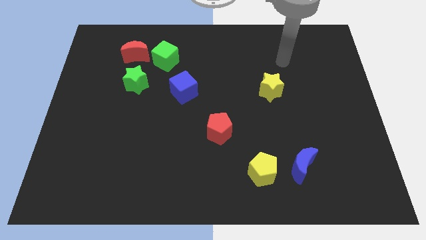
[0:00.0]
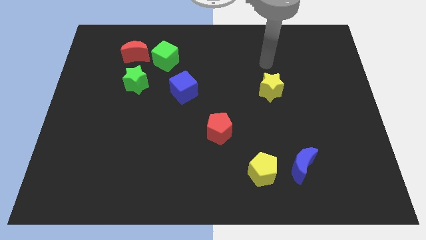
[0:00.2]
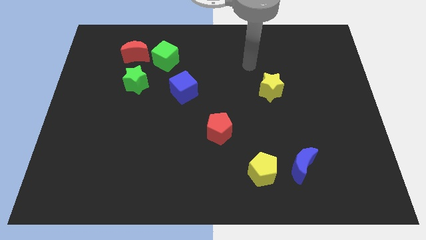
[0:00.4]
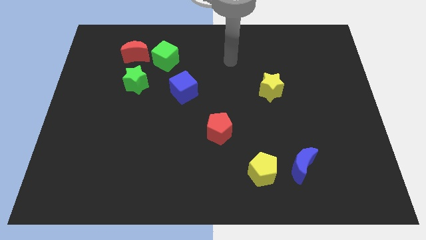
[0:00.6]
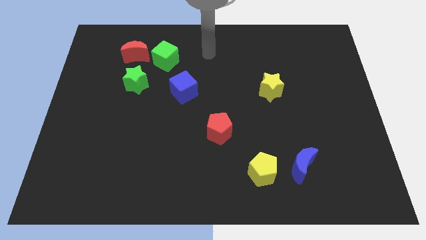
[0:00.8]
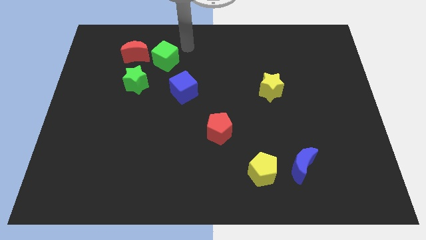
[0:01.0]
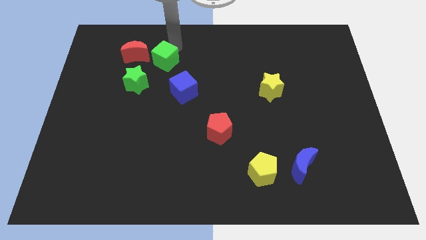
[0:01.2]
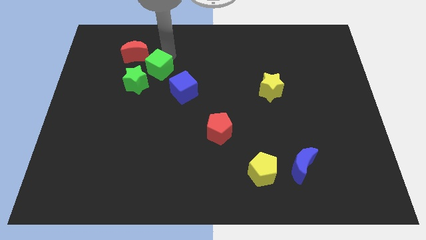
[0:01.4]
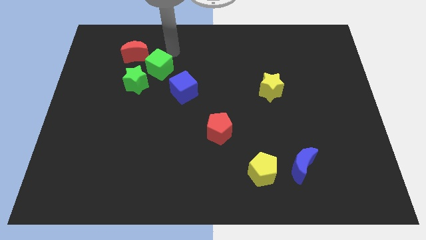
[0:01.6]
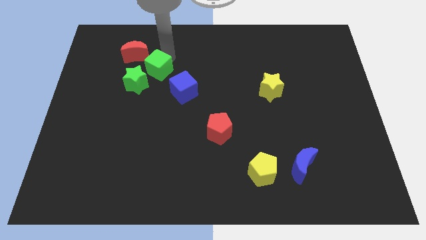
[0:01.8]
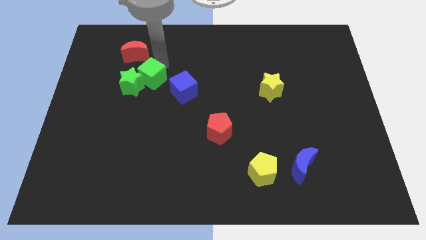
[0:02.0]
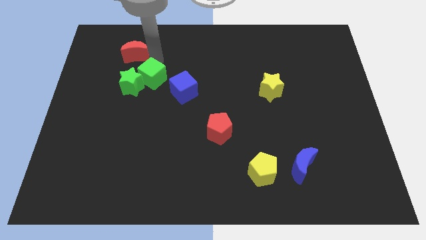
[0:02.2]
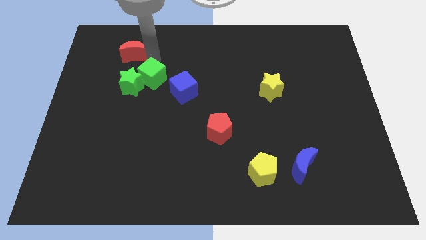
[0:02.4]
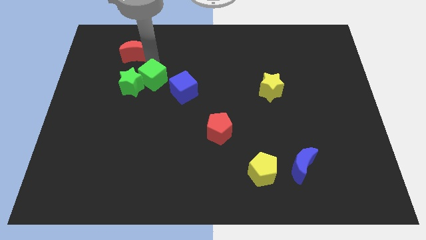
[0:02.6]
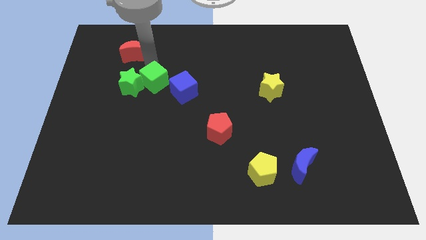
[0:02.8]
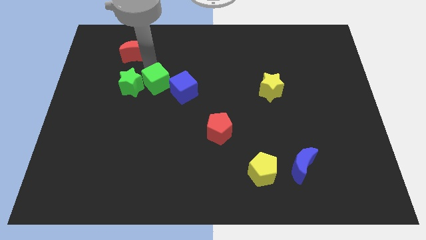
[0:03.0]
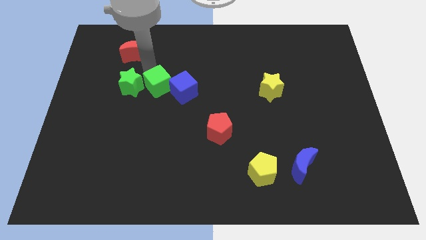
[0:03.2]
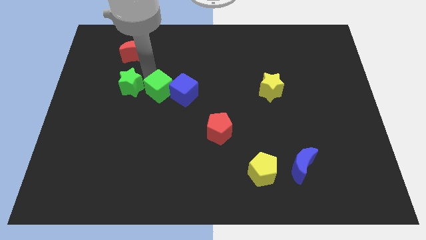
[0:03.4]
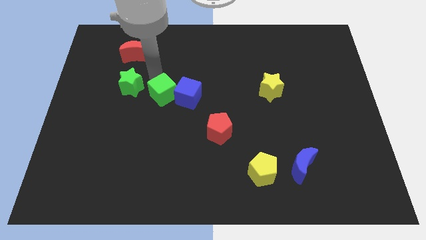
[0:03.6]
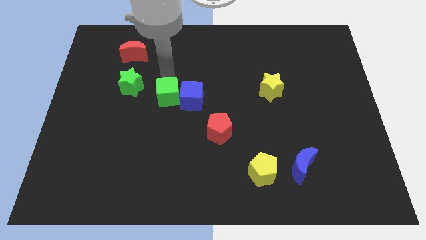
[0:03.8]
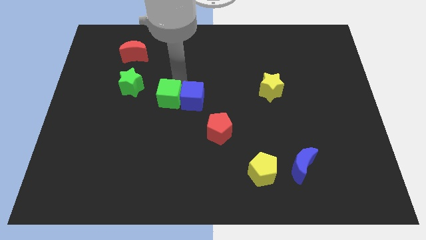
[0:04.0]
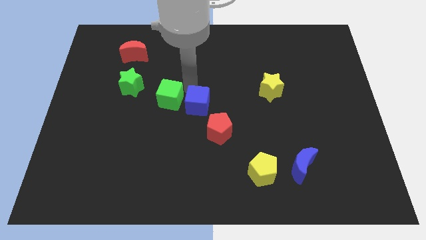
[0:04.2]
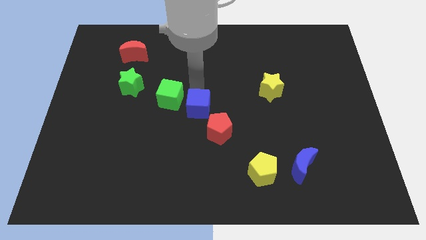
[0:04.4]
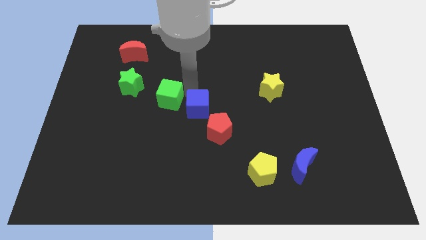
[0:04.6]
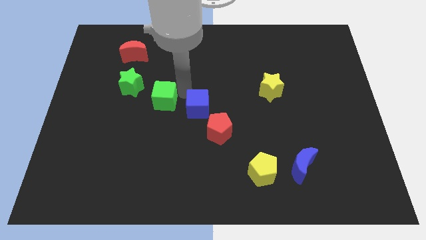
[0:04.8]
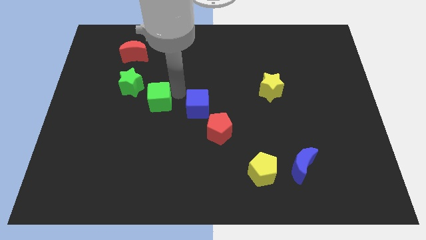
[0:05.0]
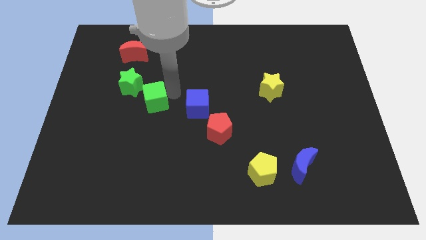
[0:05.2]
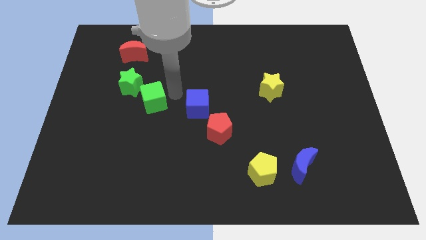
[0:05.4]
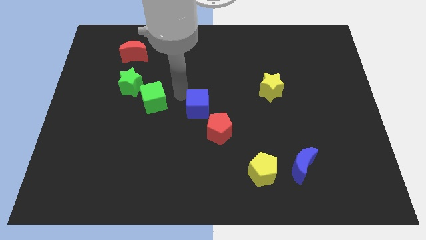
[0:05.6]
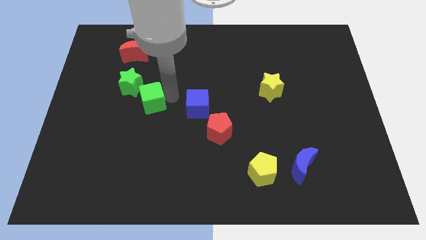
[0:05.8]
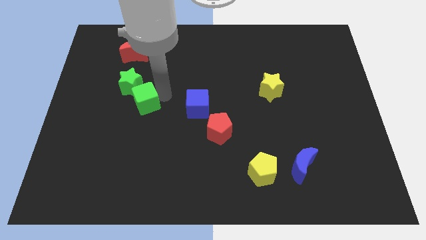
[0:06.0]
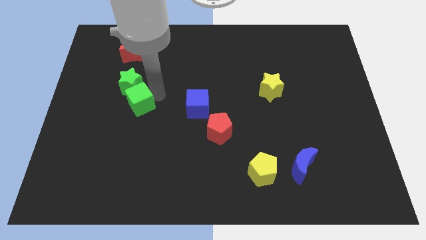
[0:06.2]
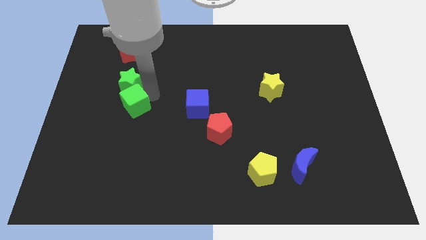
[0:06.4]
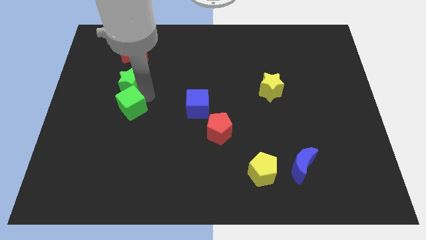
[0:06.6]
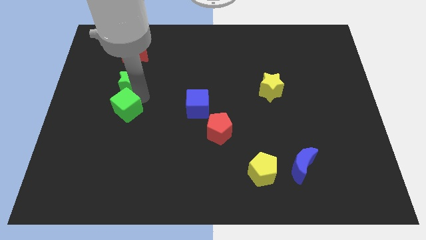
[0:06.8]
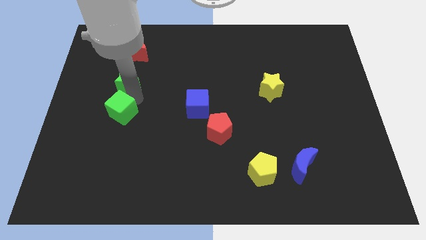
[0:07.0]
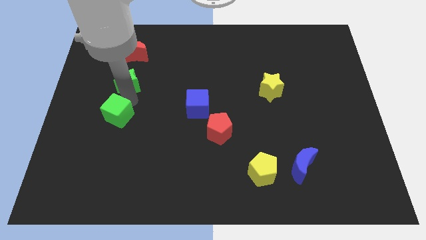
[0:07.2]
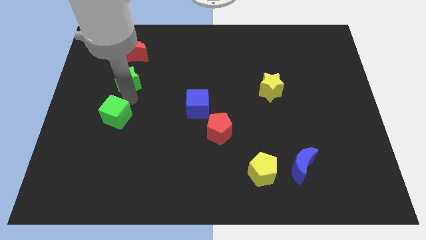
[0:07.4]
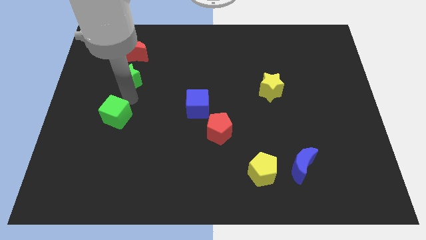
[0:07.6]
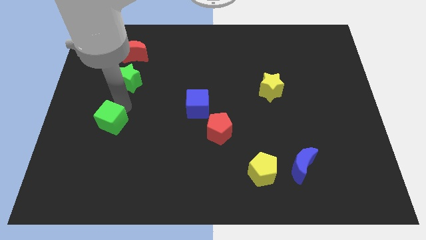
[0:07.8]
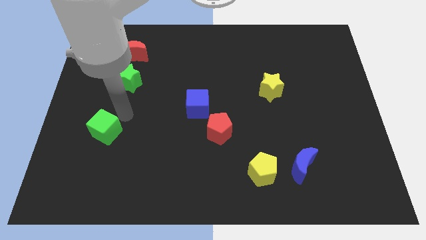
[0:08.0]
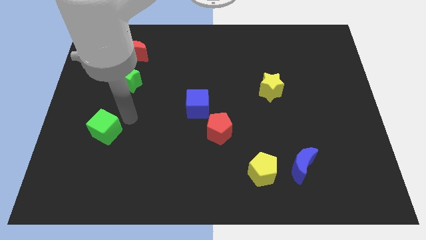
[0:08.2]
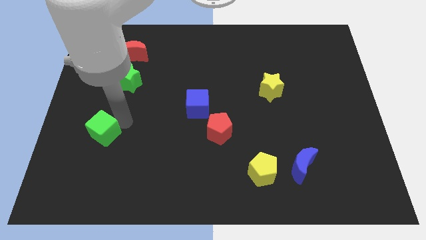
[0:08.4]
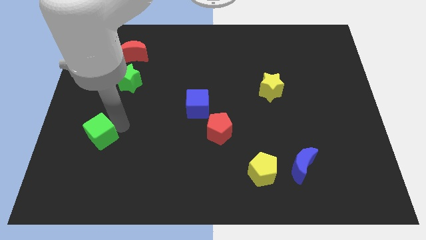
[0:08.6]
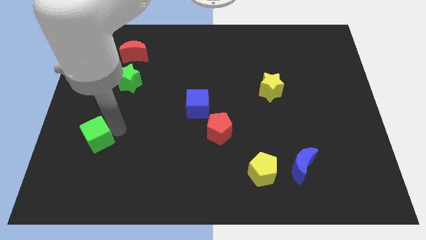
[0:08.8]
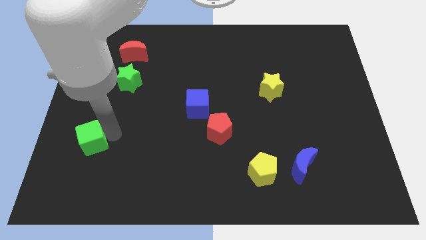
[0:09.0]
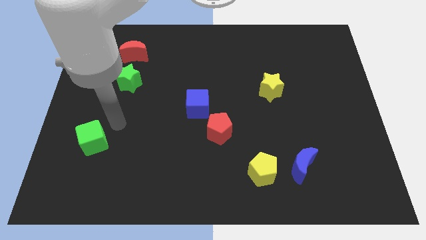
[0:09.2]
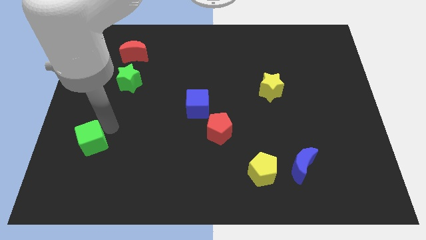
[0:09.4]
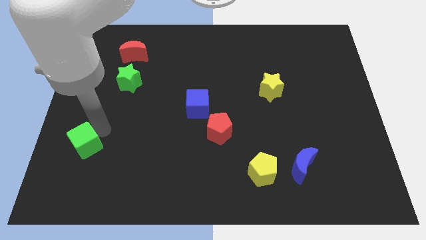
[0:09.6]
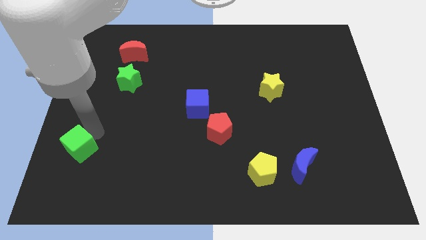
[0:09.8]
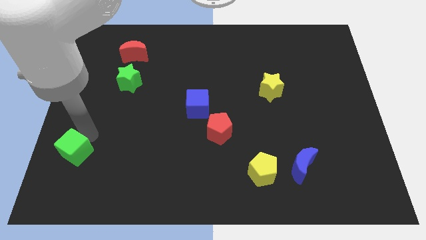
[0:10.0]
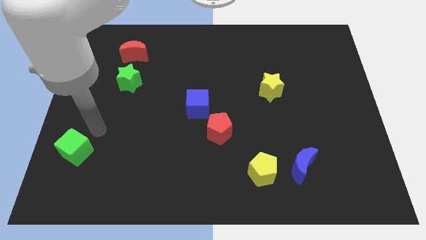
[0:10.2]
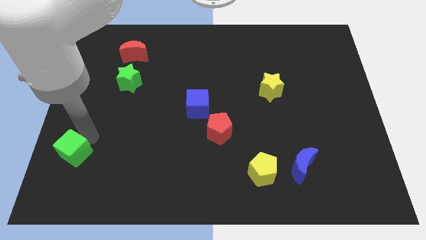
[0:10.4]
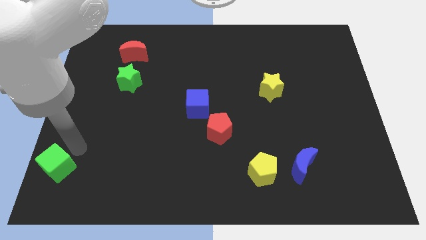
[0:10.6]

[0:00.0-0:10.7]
move the green cube to the lower left corner

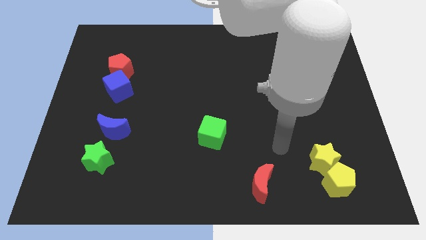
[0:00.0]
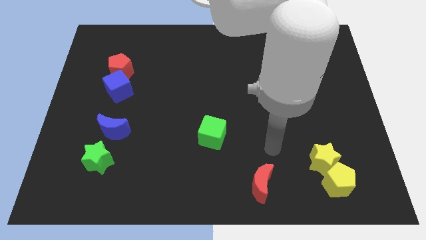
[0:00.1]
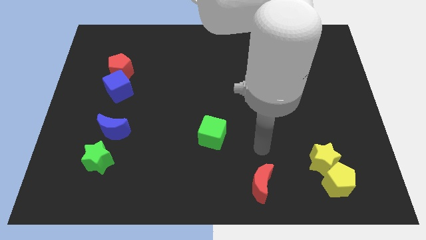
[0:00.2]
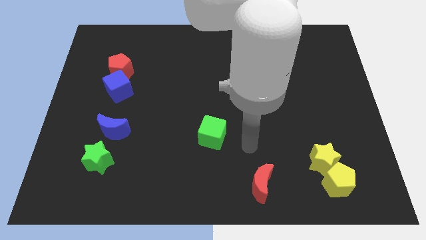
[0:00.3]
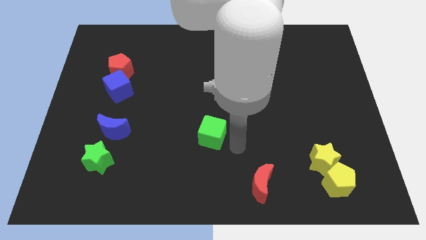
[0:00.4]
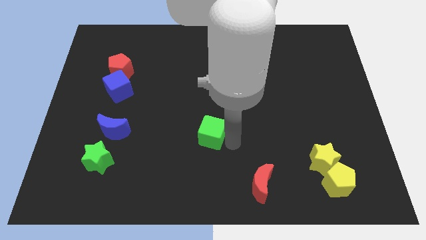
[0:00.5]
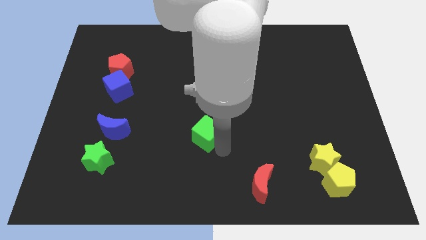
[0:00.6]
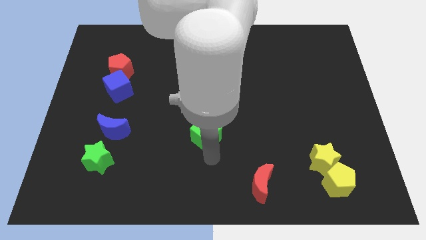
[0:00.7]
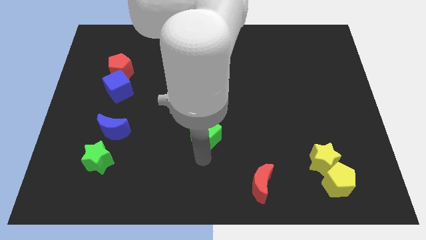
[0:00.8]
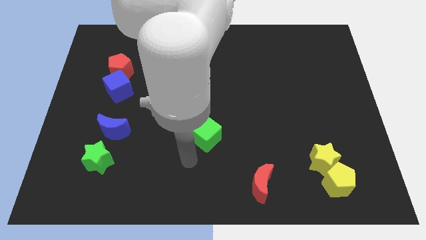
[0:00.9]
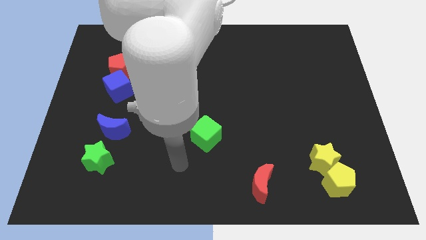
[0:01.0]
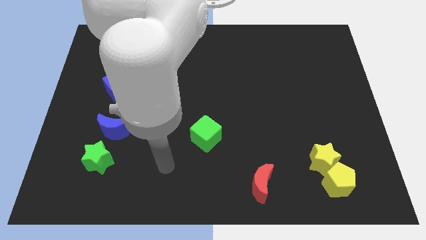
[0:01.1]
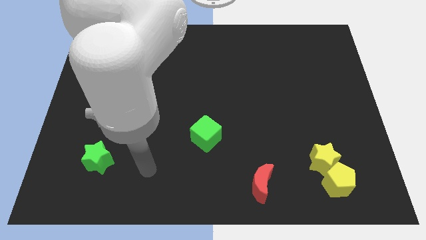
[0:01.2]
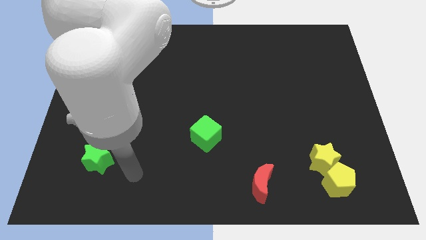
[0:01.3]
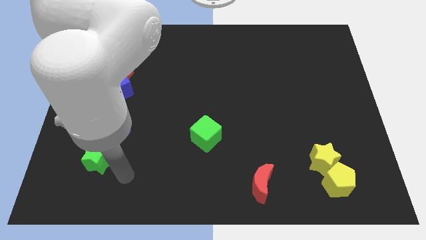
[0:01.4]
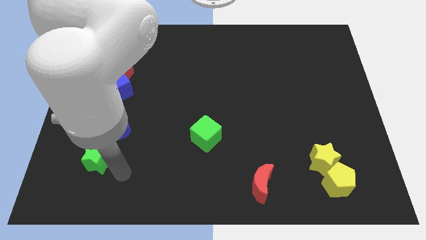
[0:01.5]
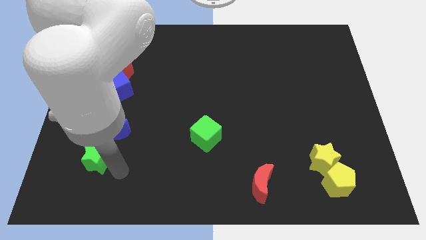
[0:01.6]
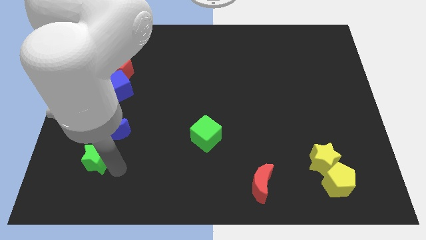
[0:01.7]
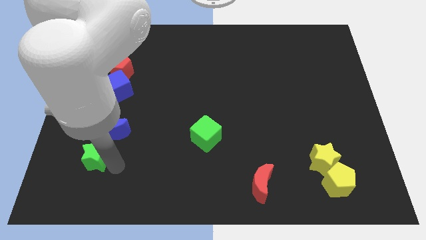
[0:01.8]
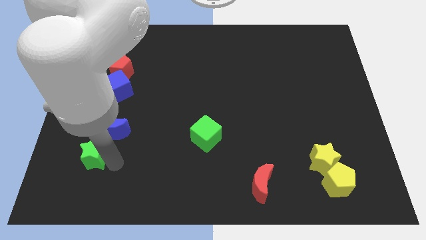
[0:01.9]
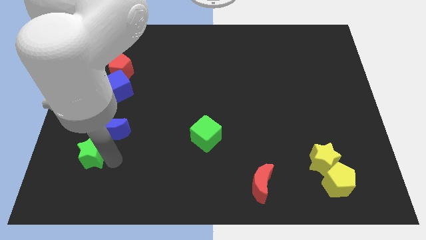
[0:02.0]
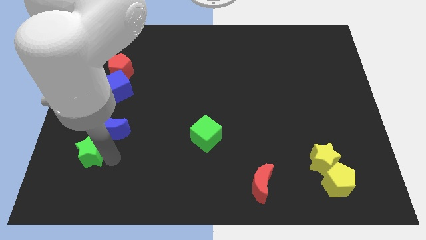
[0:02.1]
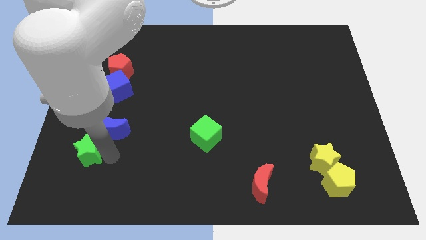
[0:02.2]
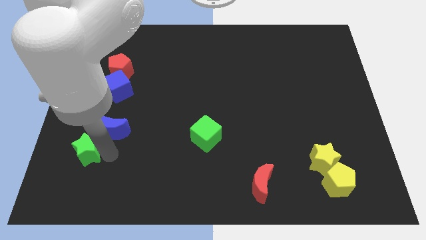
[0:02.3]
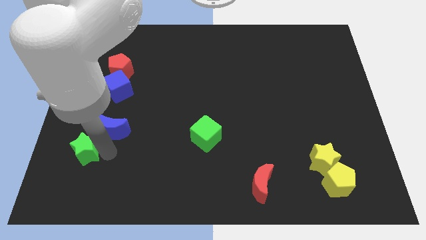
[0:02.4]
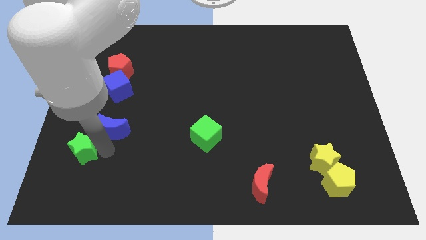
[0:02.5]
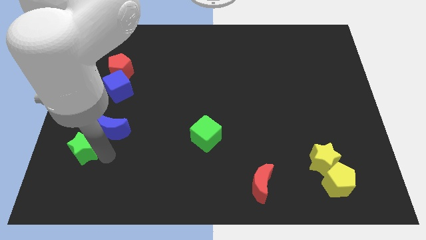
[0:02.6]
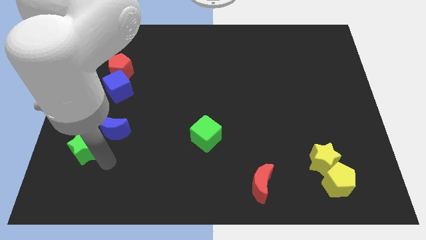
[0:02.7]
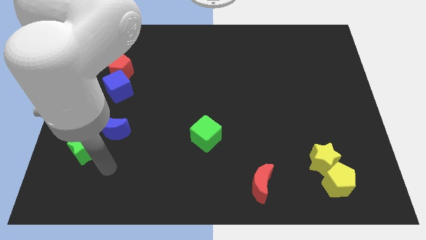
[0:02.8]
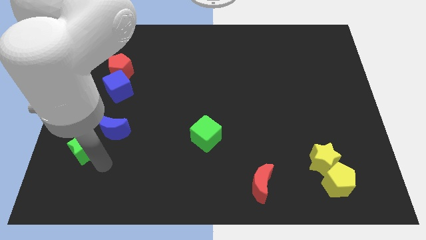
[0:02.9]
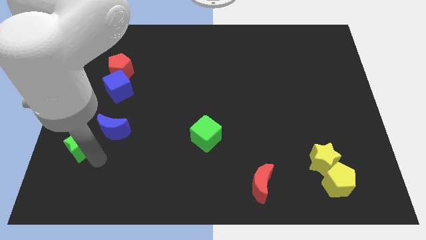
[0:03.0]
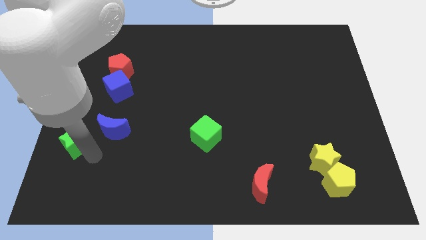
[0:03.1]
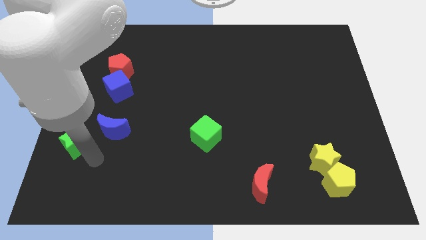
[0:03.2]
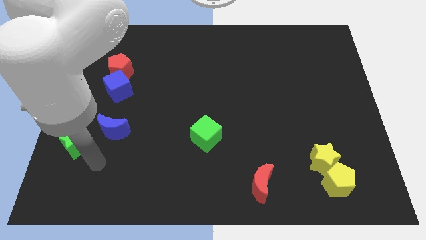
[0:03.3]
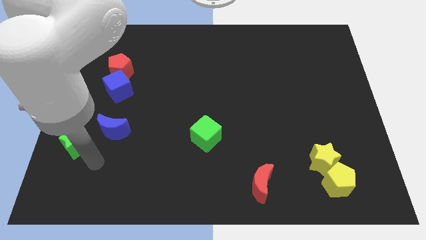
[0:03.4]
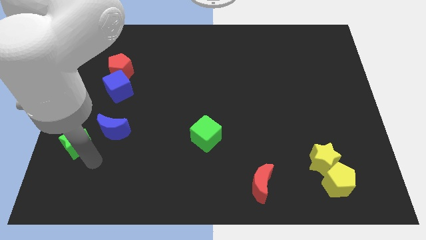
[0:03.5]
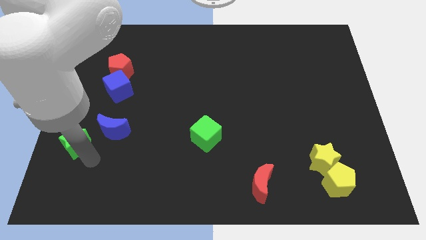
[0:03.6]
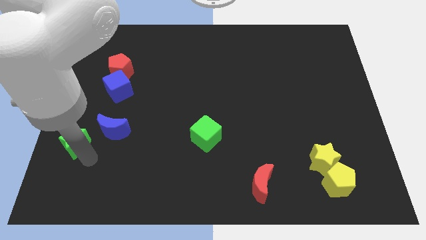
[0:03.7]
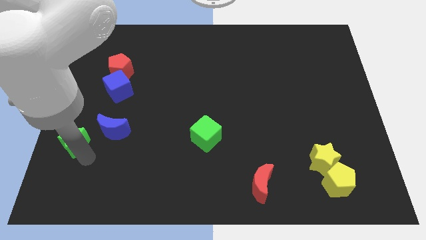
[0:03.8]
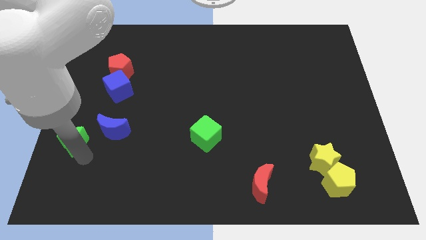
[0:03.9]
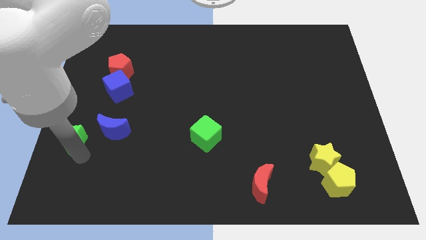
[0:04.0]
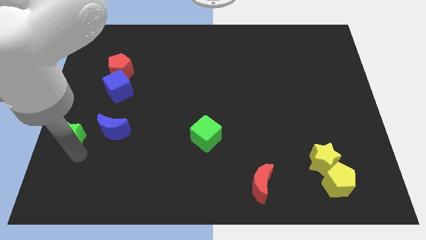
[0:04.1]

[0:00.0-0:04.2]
push the green star to the left side
